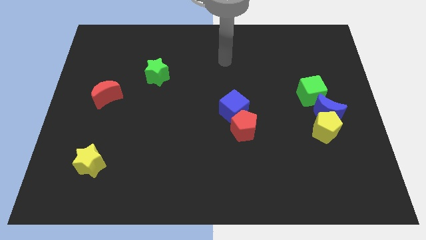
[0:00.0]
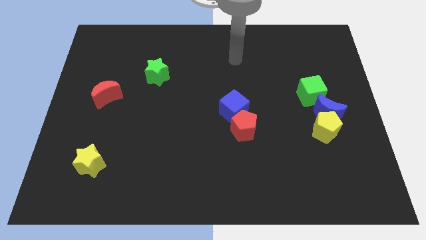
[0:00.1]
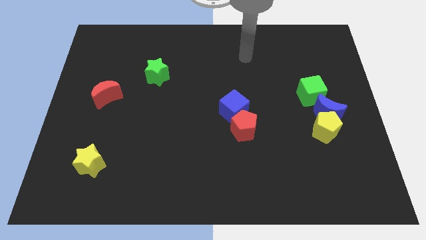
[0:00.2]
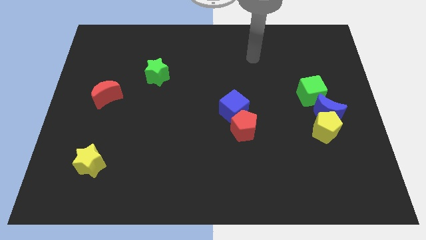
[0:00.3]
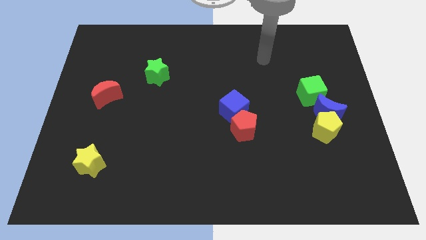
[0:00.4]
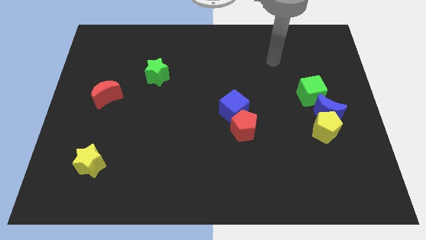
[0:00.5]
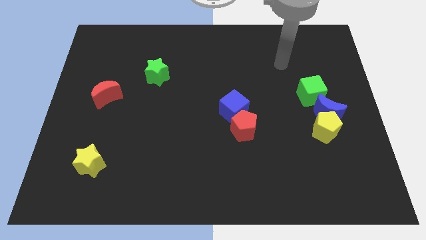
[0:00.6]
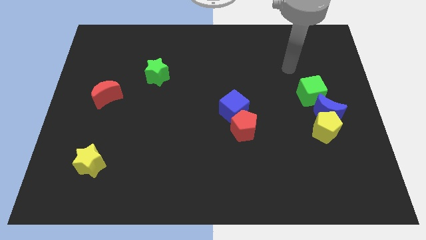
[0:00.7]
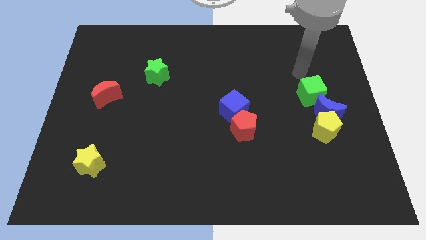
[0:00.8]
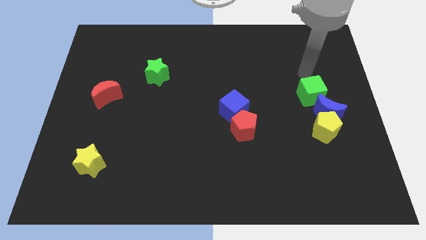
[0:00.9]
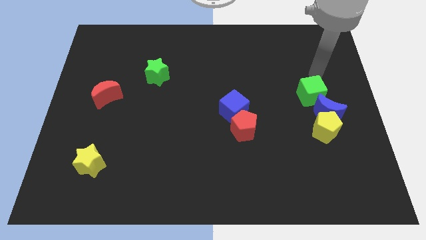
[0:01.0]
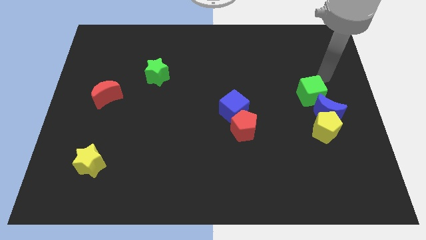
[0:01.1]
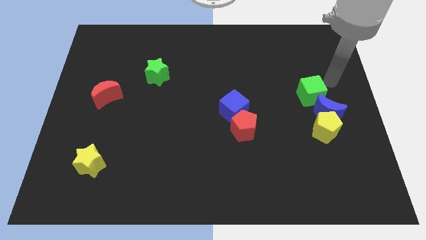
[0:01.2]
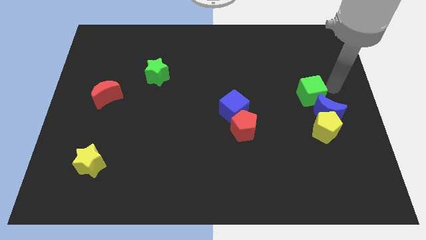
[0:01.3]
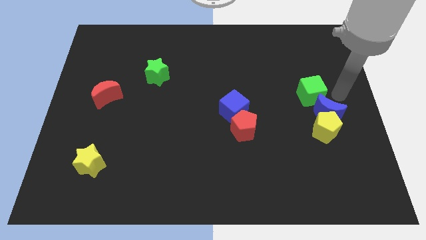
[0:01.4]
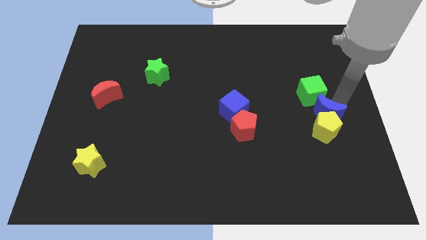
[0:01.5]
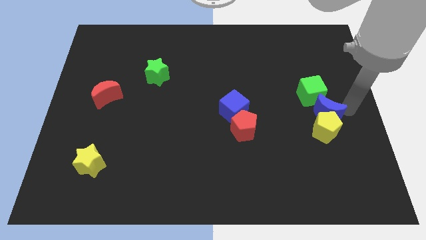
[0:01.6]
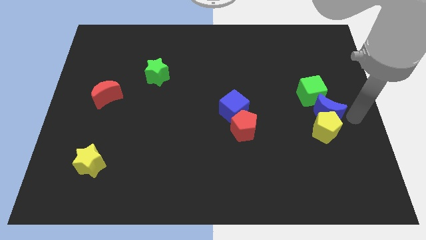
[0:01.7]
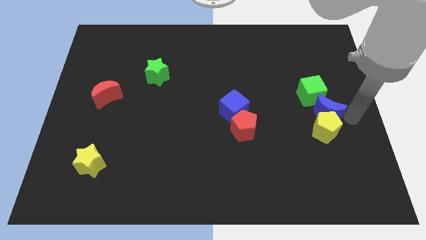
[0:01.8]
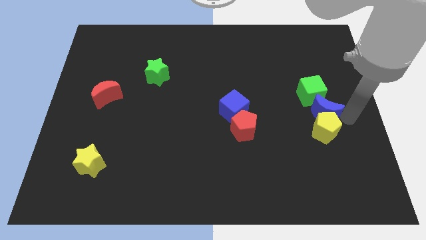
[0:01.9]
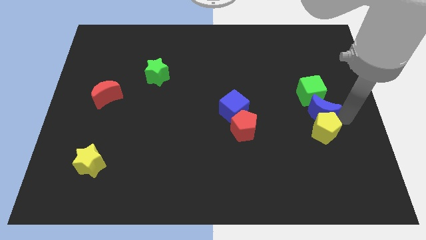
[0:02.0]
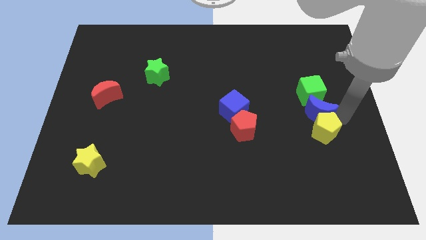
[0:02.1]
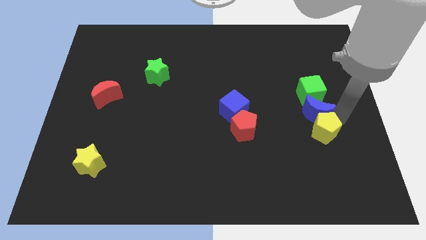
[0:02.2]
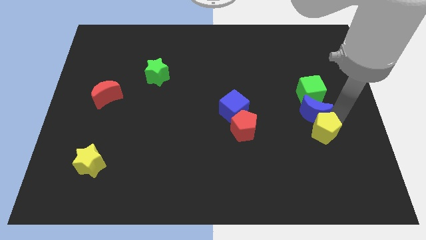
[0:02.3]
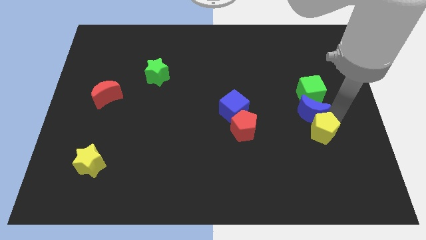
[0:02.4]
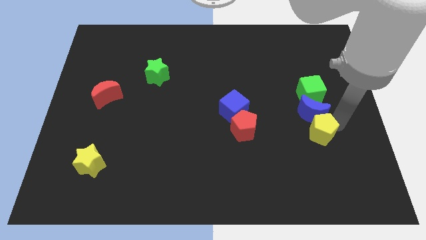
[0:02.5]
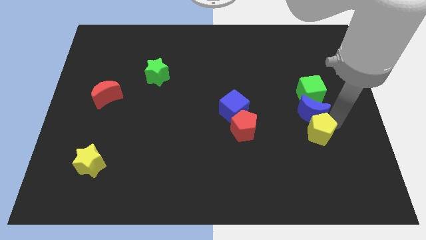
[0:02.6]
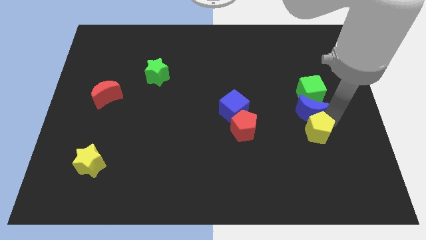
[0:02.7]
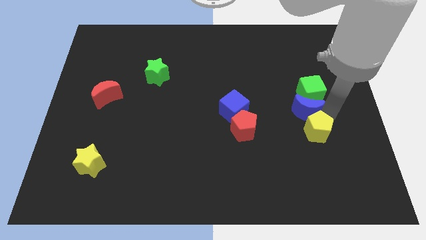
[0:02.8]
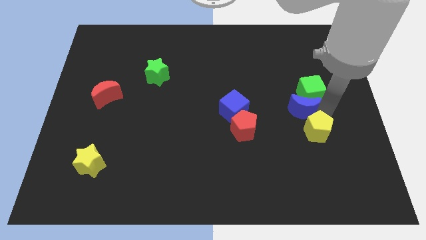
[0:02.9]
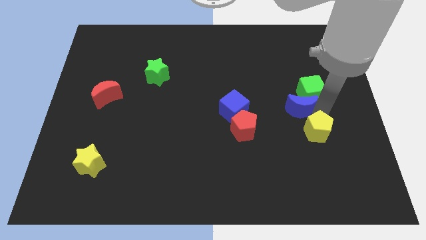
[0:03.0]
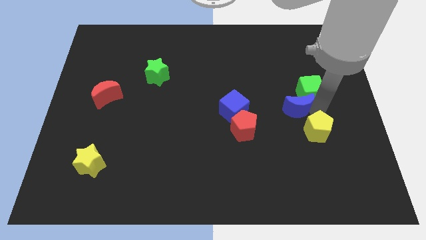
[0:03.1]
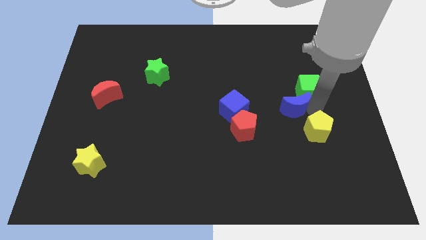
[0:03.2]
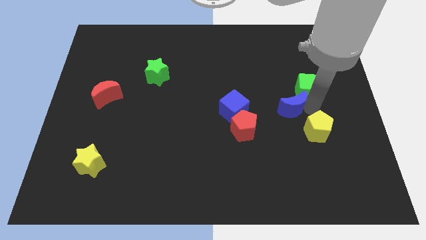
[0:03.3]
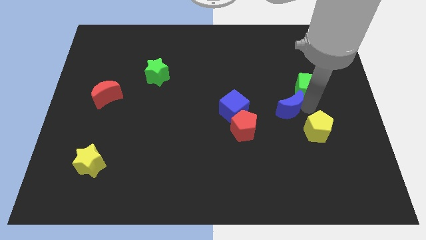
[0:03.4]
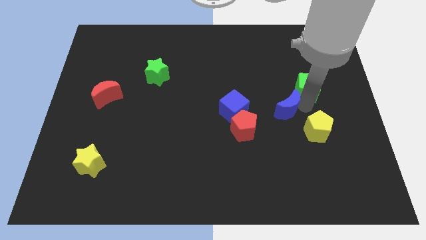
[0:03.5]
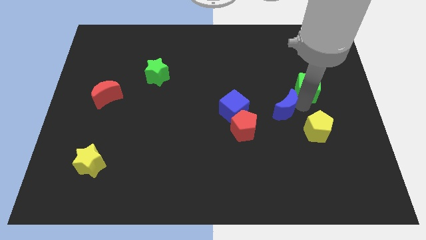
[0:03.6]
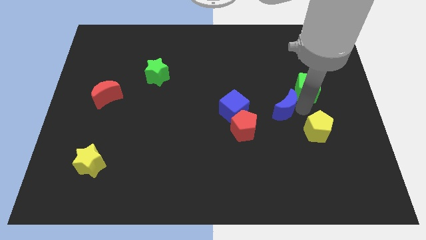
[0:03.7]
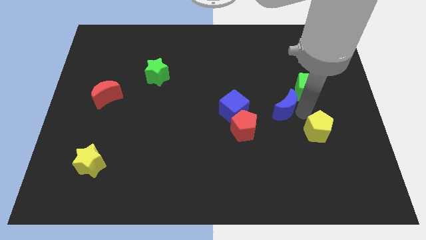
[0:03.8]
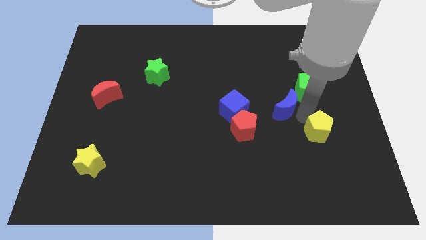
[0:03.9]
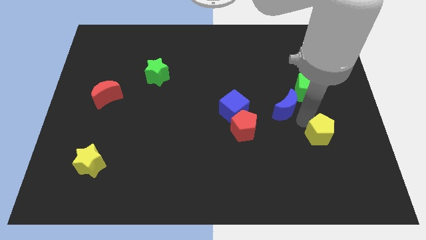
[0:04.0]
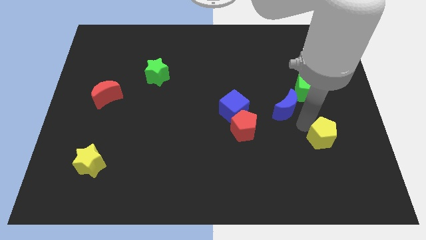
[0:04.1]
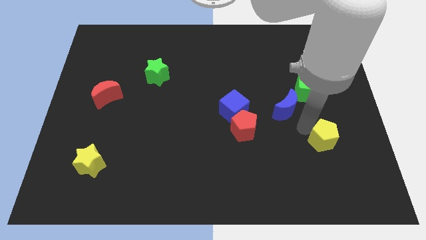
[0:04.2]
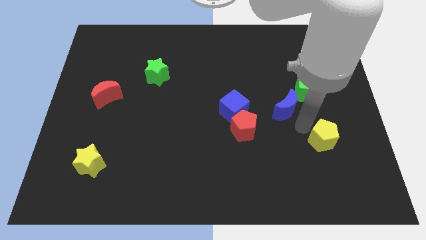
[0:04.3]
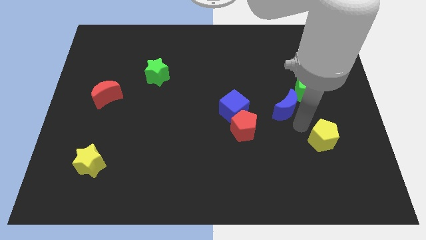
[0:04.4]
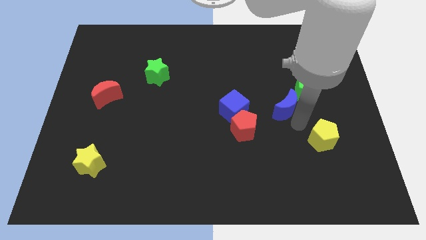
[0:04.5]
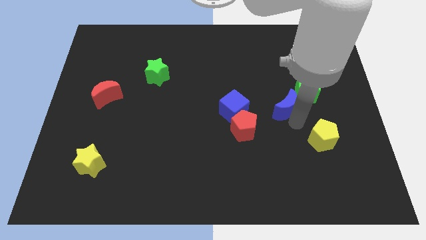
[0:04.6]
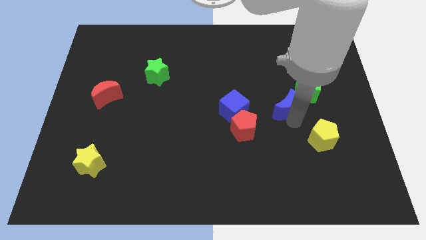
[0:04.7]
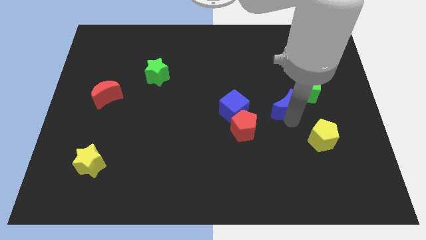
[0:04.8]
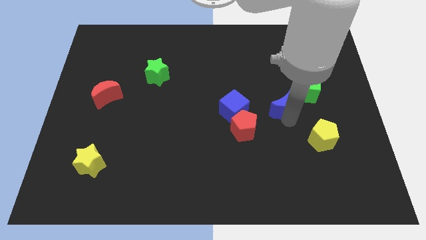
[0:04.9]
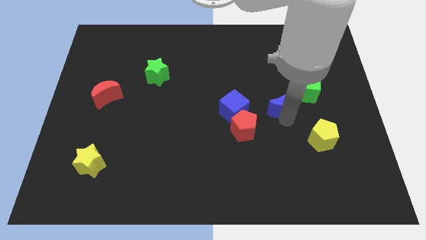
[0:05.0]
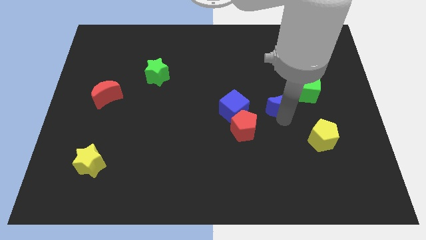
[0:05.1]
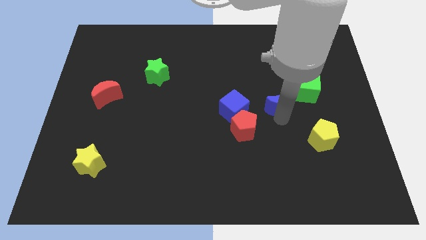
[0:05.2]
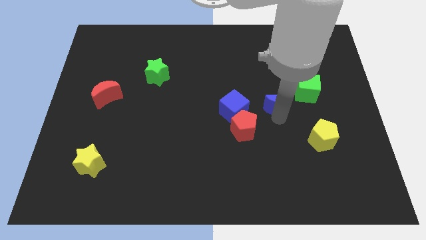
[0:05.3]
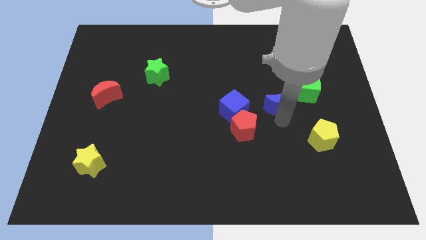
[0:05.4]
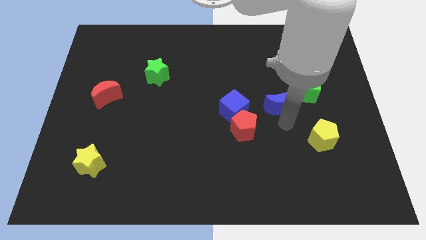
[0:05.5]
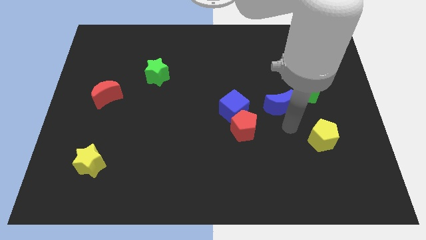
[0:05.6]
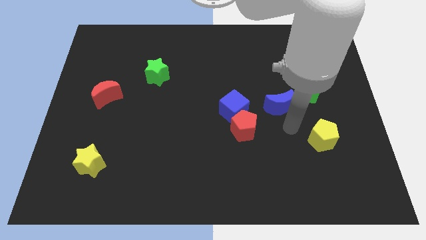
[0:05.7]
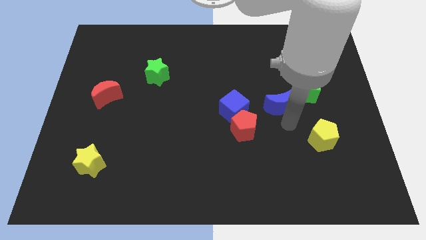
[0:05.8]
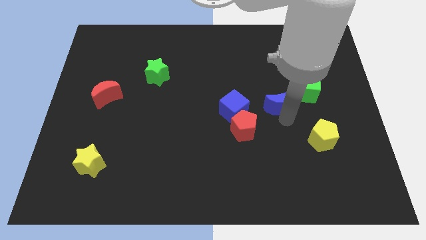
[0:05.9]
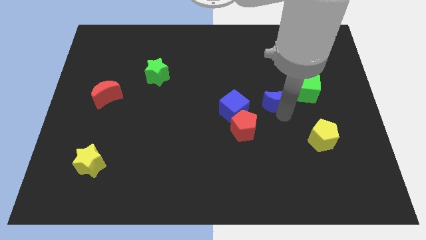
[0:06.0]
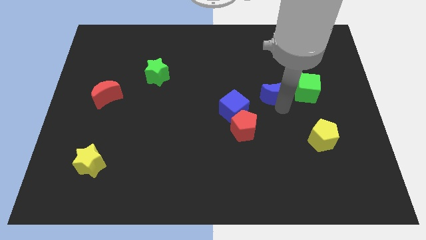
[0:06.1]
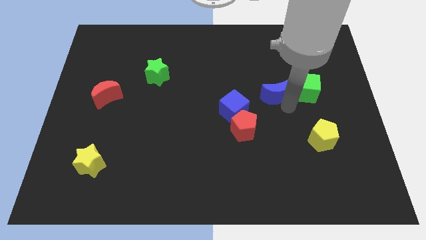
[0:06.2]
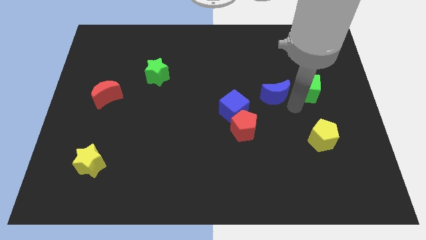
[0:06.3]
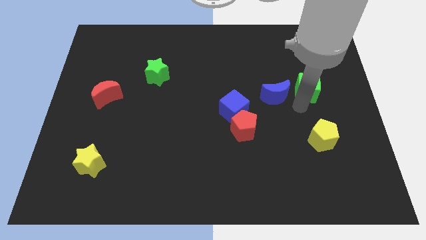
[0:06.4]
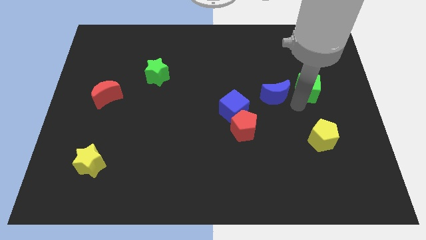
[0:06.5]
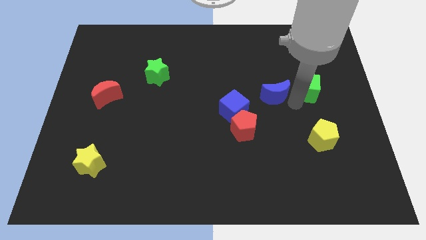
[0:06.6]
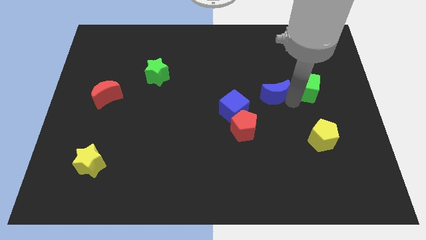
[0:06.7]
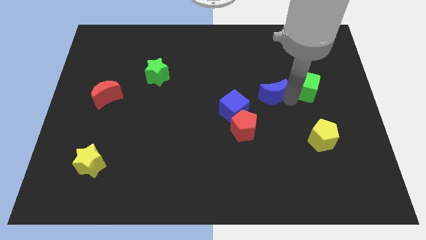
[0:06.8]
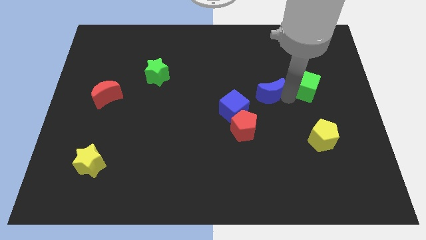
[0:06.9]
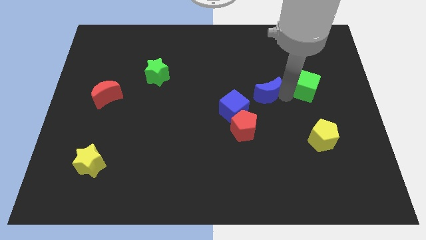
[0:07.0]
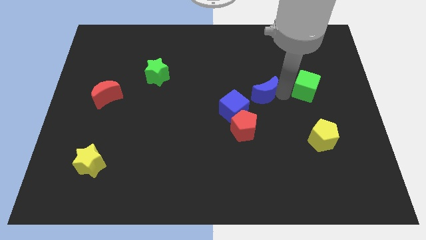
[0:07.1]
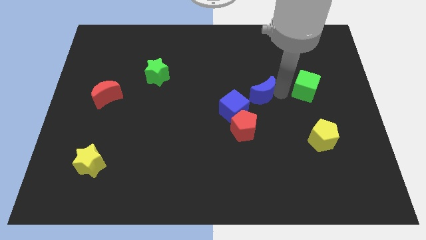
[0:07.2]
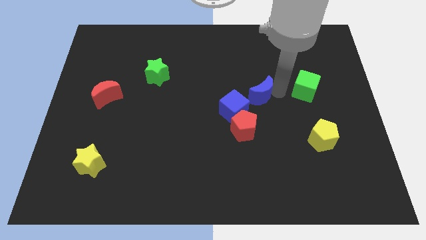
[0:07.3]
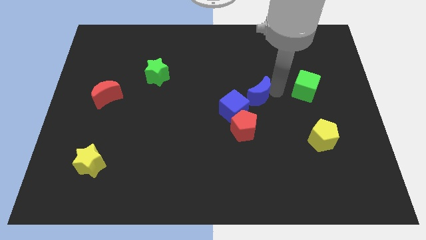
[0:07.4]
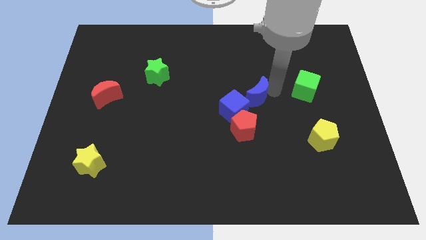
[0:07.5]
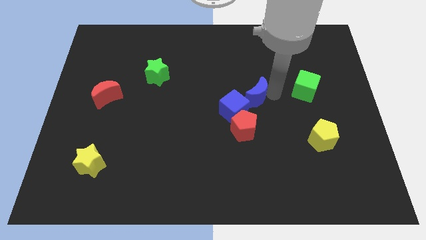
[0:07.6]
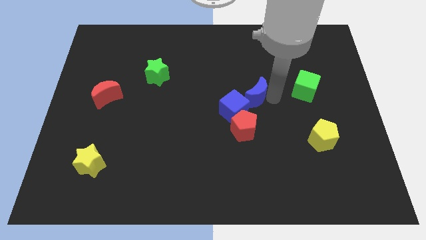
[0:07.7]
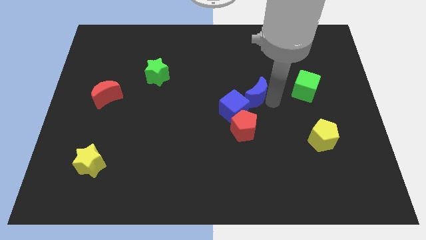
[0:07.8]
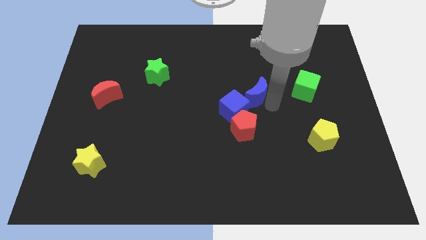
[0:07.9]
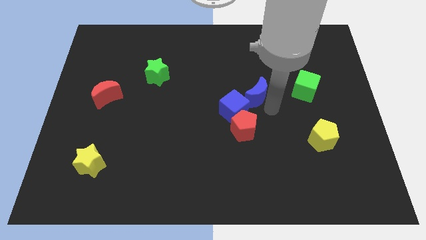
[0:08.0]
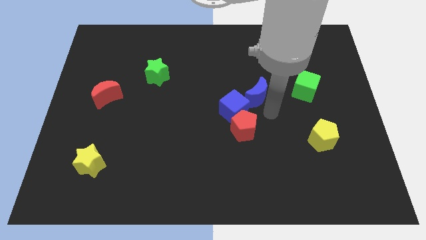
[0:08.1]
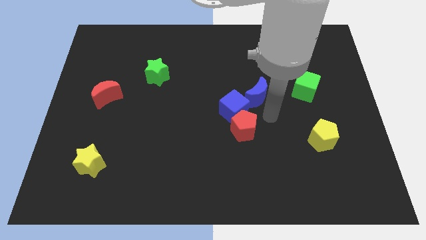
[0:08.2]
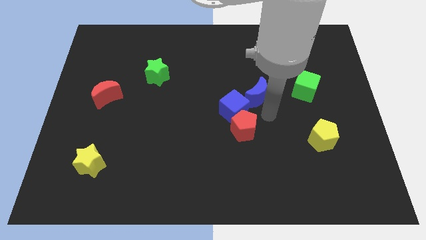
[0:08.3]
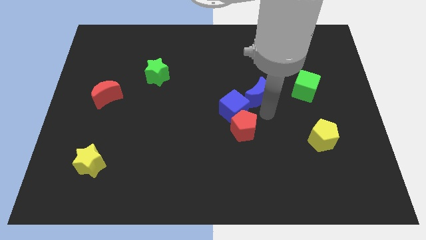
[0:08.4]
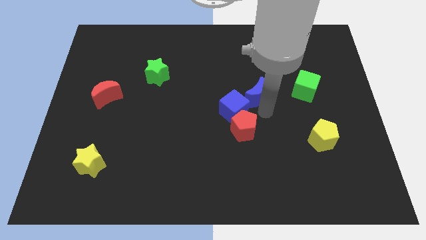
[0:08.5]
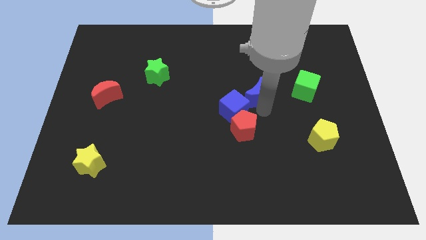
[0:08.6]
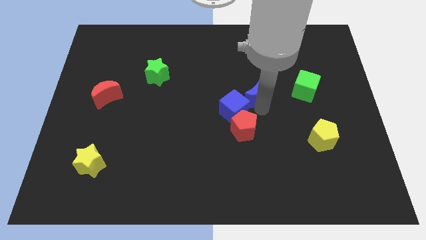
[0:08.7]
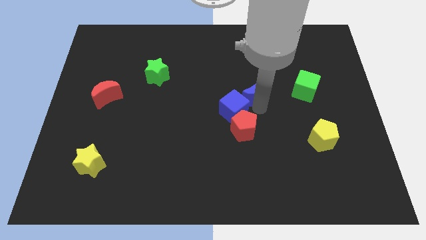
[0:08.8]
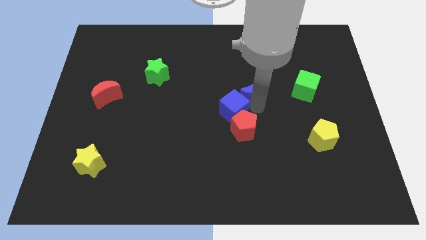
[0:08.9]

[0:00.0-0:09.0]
slide the blue moon above the blue cube
